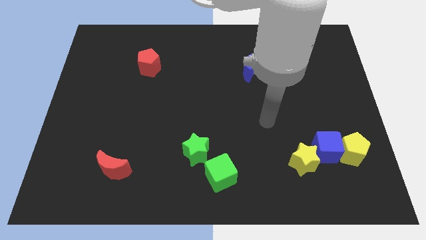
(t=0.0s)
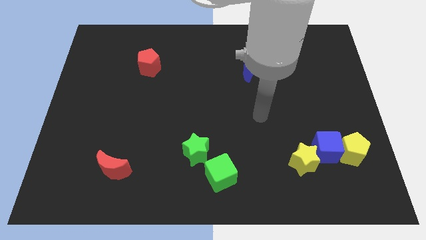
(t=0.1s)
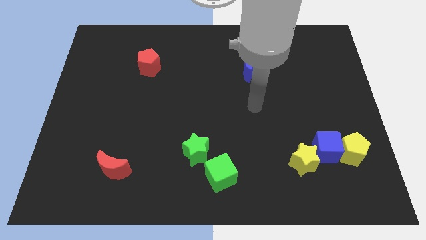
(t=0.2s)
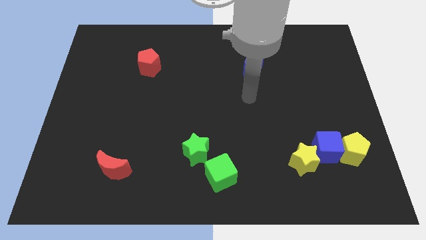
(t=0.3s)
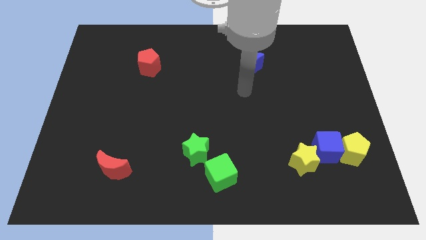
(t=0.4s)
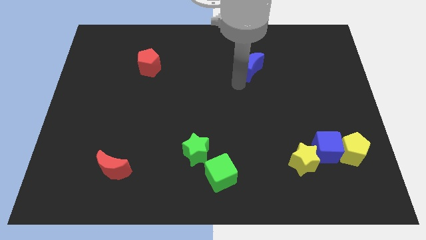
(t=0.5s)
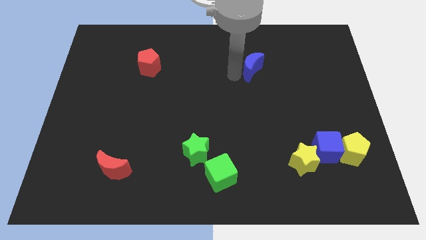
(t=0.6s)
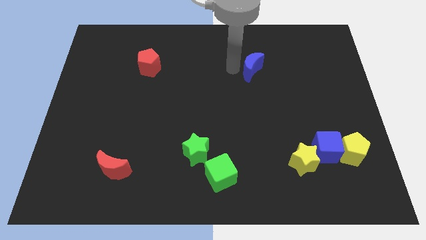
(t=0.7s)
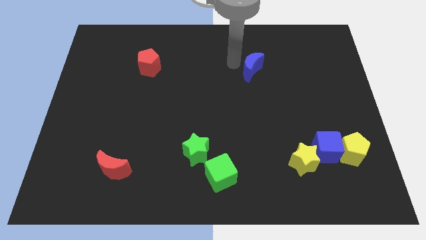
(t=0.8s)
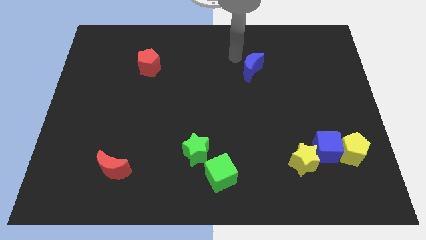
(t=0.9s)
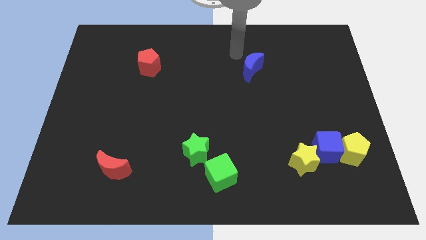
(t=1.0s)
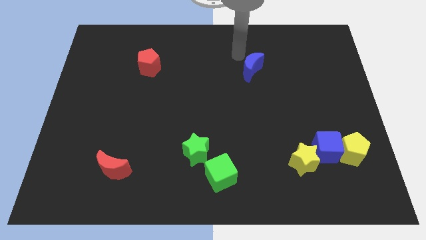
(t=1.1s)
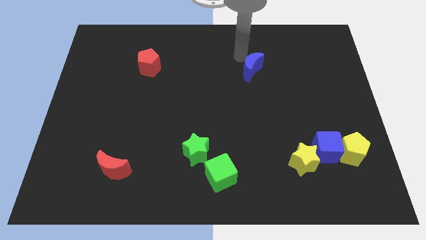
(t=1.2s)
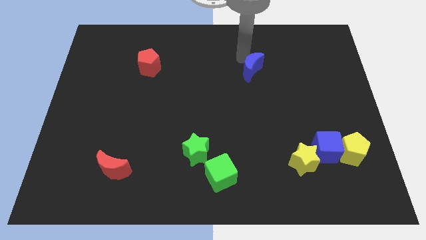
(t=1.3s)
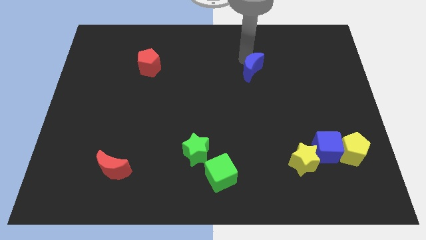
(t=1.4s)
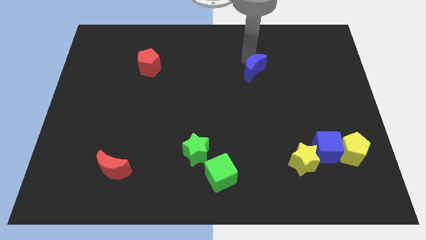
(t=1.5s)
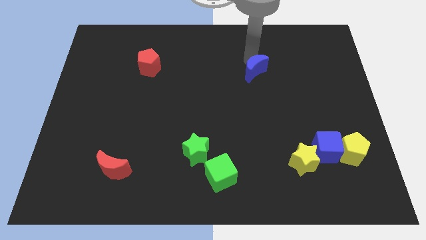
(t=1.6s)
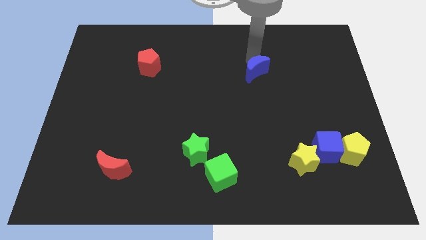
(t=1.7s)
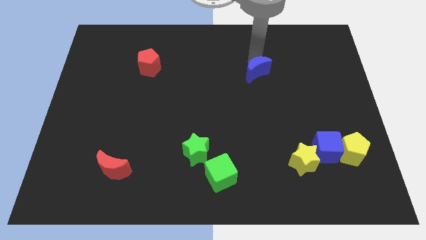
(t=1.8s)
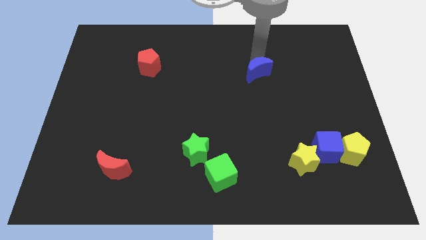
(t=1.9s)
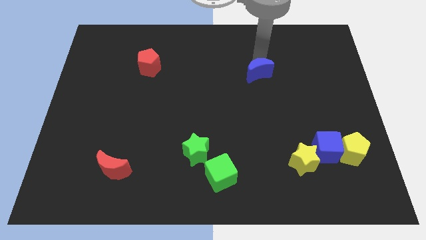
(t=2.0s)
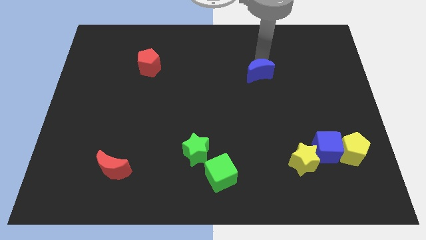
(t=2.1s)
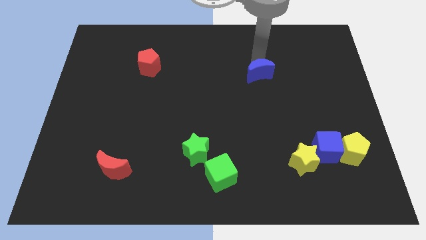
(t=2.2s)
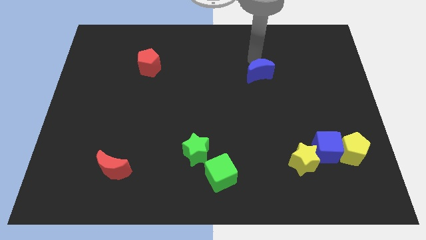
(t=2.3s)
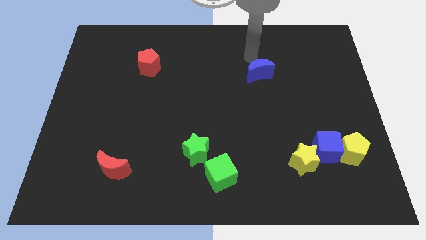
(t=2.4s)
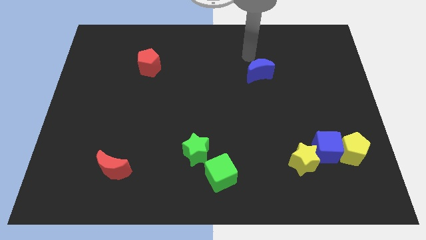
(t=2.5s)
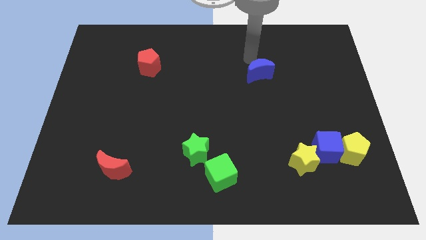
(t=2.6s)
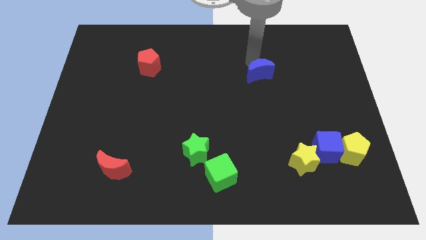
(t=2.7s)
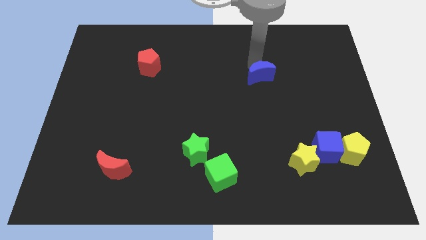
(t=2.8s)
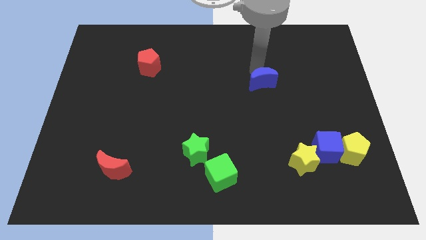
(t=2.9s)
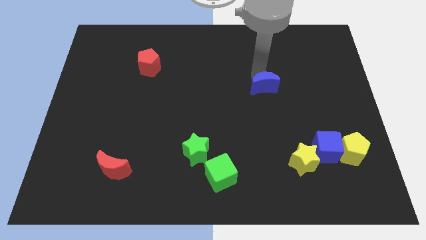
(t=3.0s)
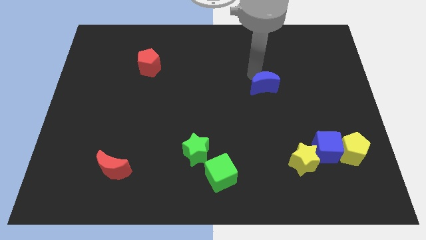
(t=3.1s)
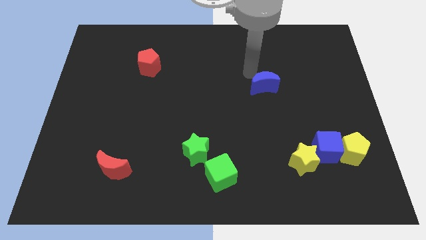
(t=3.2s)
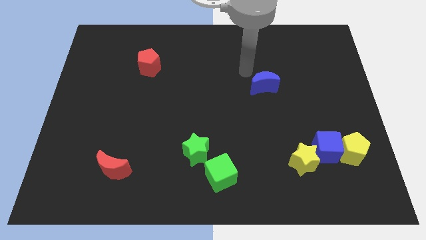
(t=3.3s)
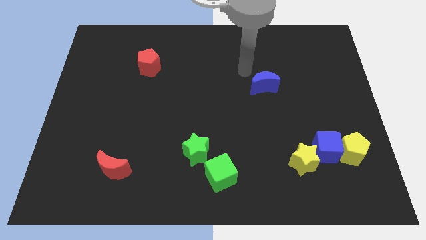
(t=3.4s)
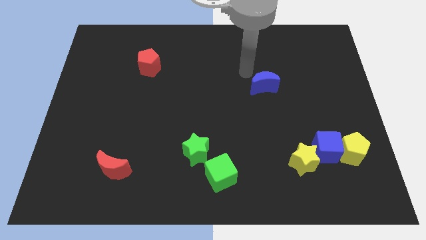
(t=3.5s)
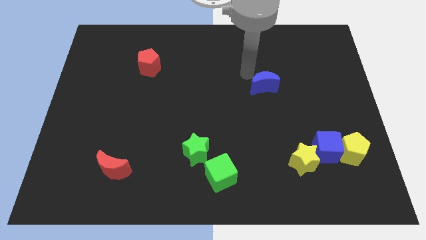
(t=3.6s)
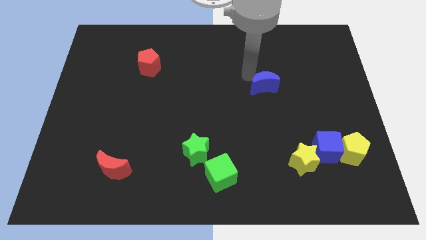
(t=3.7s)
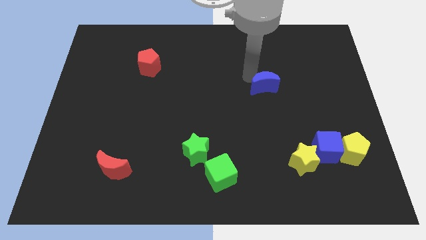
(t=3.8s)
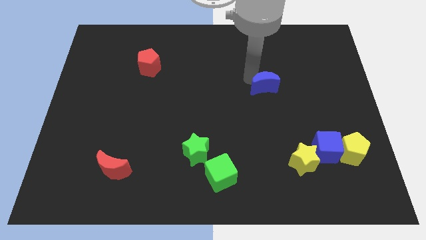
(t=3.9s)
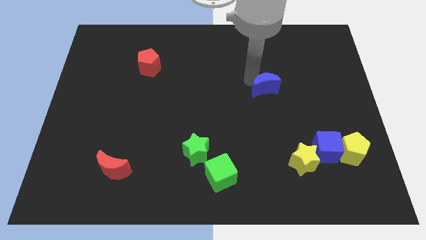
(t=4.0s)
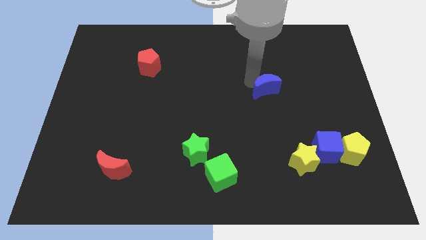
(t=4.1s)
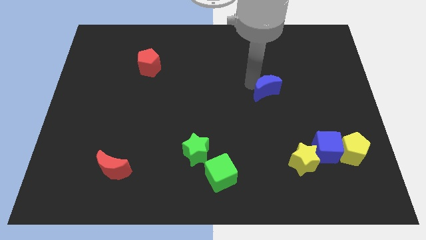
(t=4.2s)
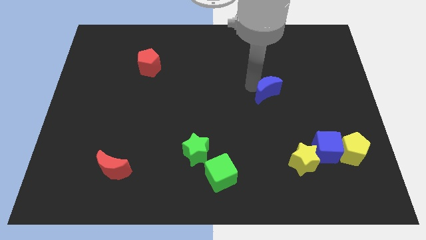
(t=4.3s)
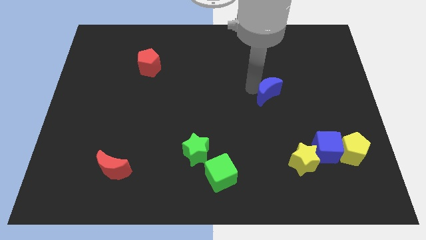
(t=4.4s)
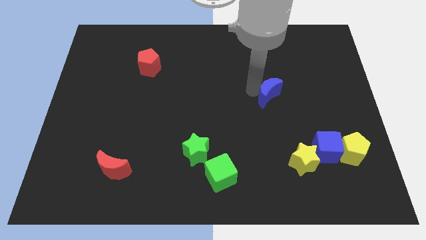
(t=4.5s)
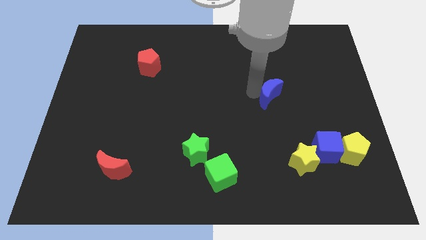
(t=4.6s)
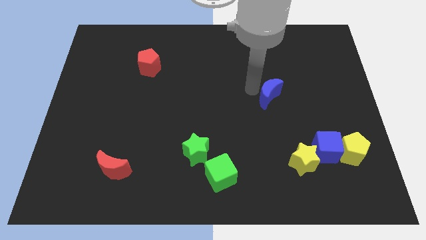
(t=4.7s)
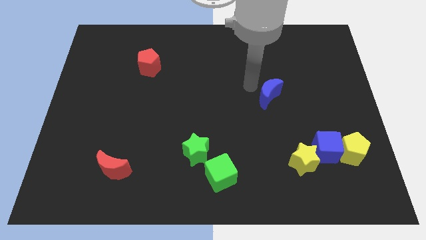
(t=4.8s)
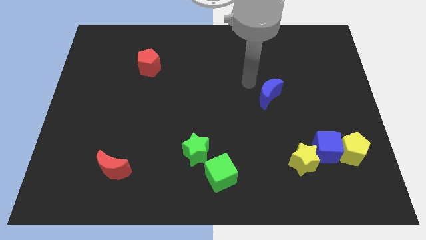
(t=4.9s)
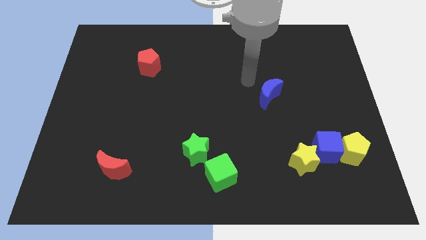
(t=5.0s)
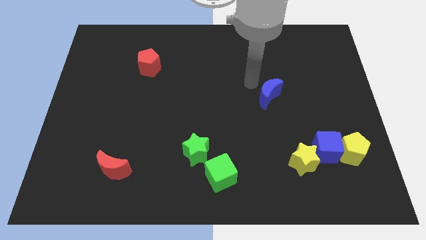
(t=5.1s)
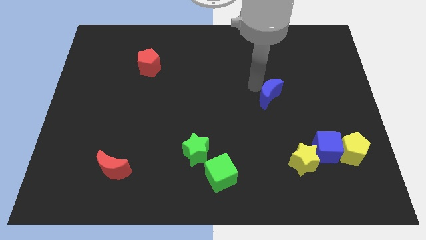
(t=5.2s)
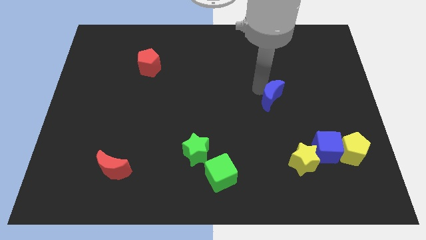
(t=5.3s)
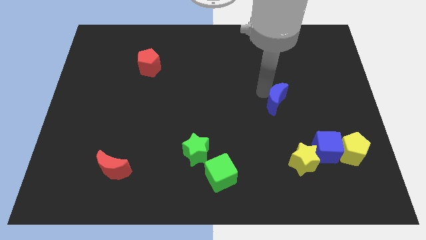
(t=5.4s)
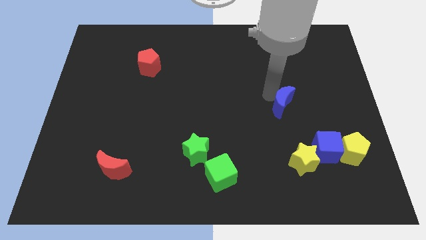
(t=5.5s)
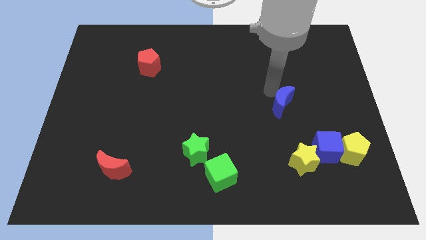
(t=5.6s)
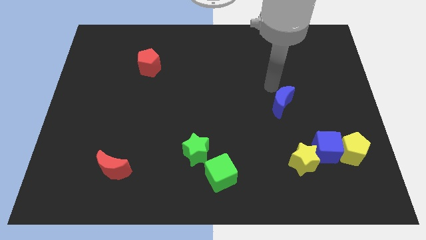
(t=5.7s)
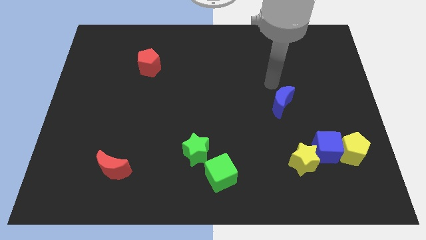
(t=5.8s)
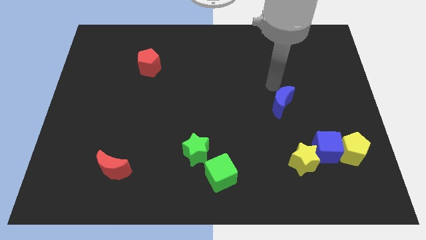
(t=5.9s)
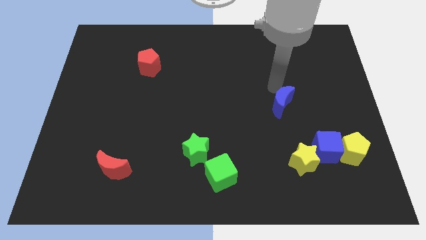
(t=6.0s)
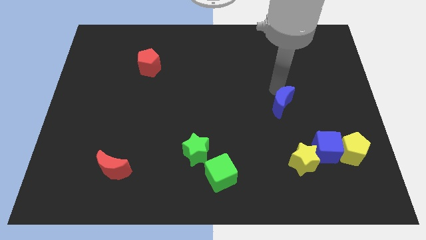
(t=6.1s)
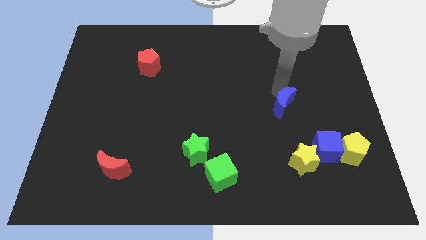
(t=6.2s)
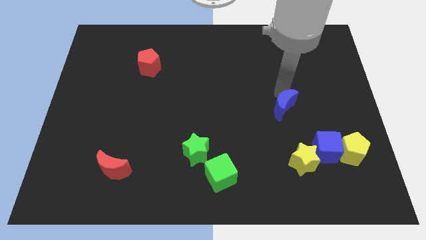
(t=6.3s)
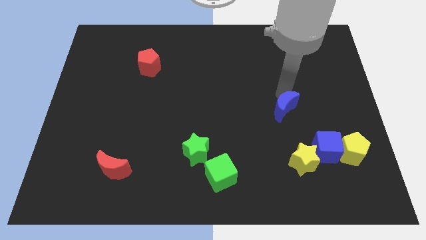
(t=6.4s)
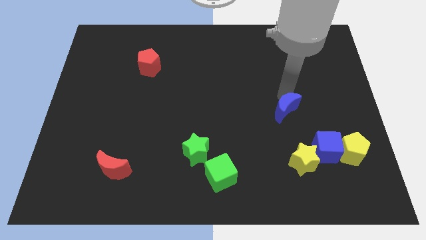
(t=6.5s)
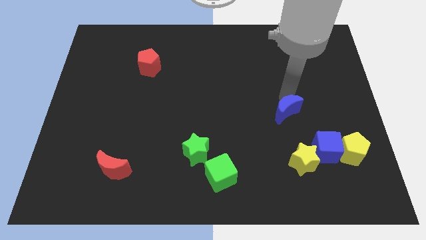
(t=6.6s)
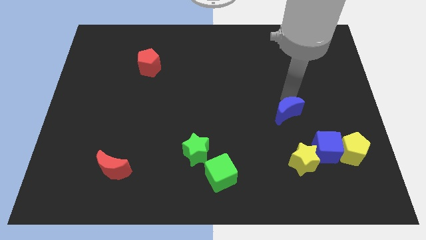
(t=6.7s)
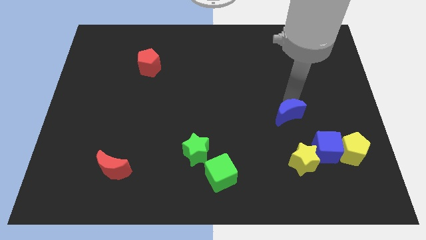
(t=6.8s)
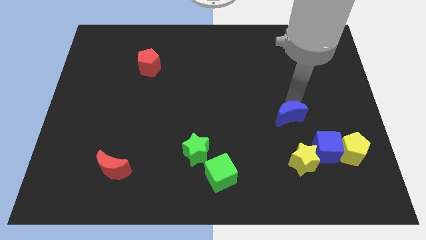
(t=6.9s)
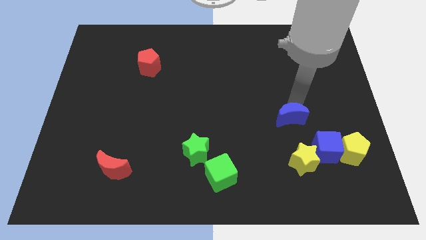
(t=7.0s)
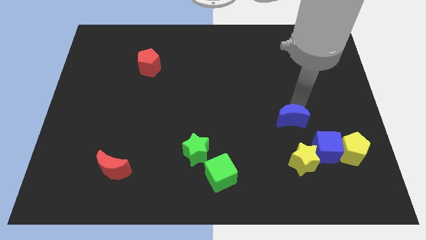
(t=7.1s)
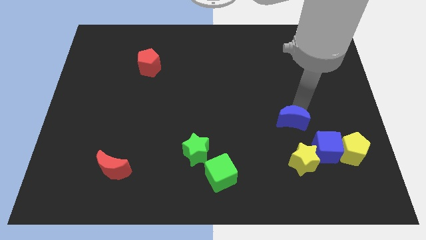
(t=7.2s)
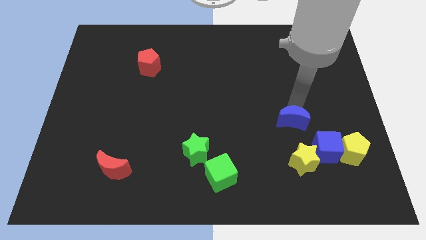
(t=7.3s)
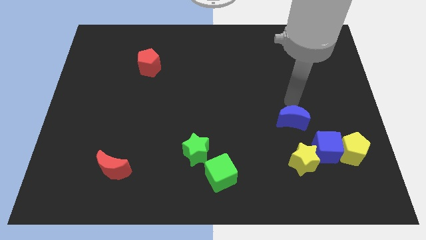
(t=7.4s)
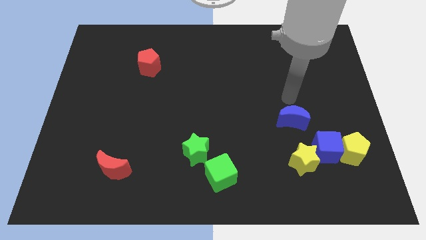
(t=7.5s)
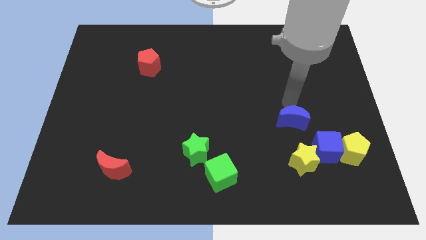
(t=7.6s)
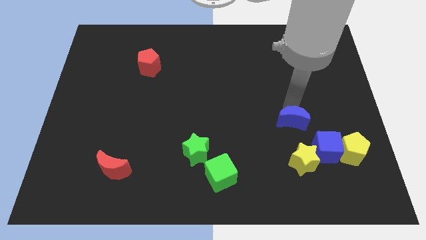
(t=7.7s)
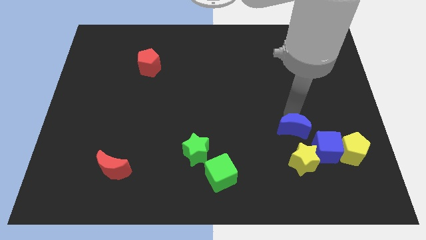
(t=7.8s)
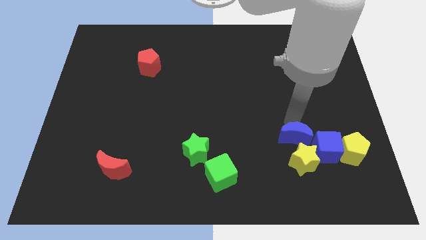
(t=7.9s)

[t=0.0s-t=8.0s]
slide the blue moon to the yellow star
